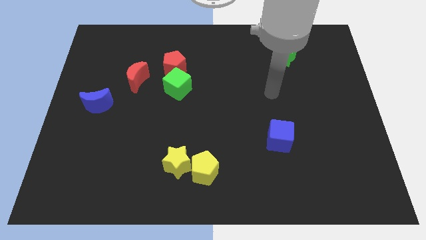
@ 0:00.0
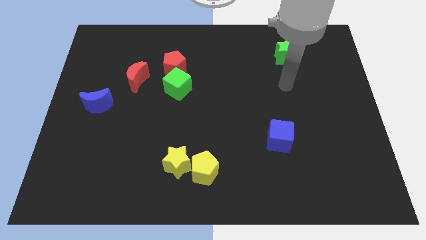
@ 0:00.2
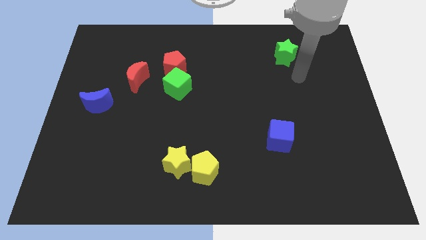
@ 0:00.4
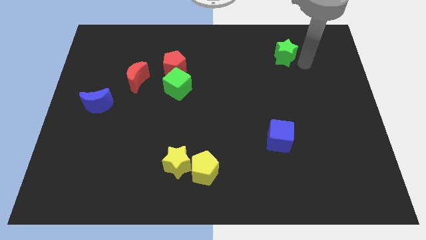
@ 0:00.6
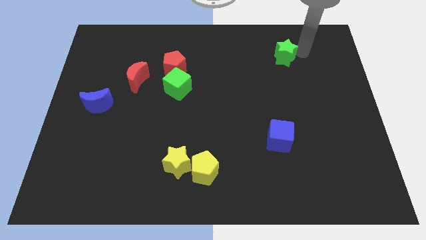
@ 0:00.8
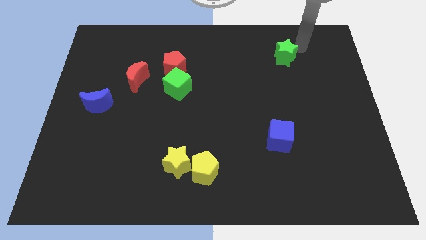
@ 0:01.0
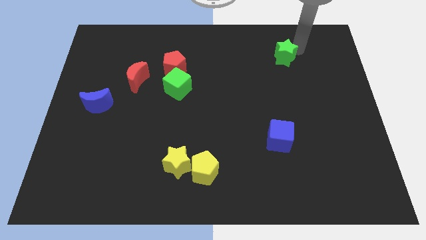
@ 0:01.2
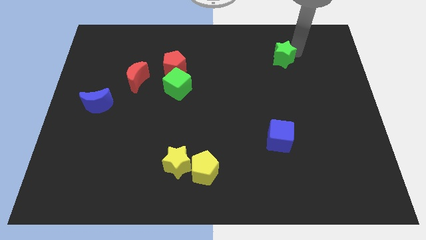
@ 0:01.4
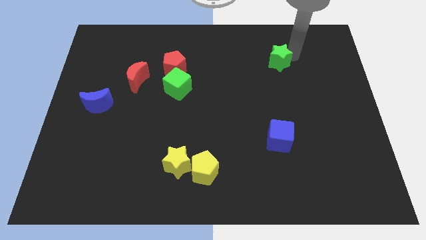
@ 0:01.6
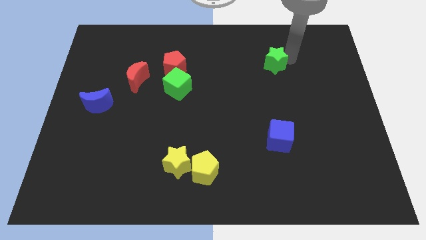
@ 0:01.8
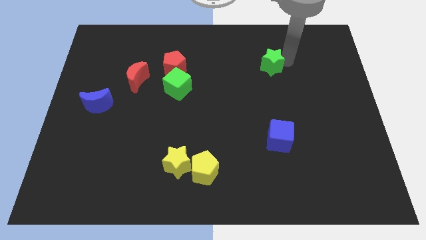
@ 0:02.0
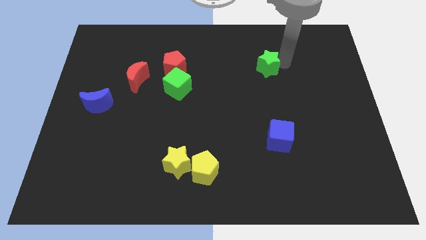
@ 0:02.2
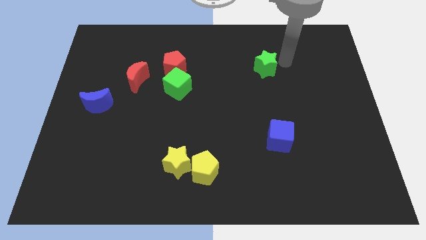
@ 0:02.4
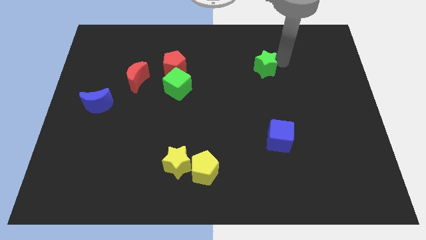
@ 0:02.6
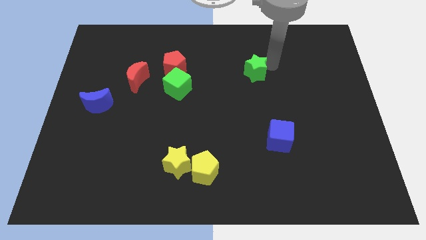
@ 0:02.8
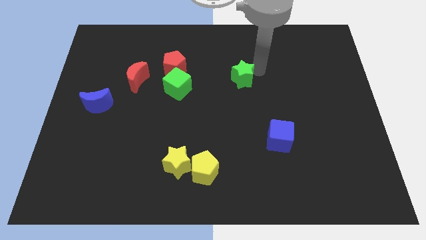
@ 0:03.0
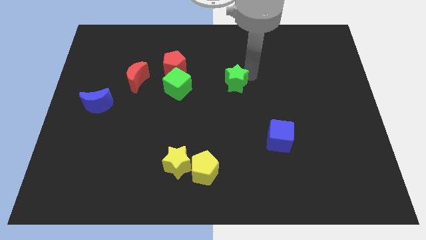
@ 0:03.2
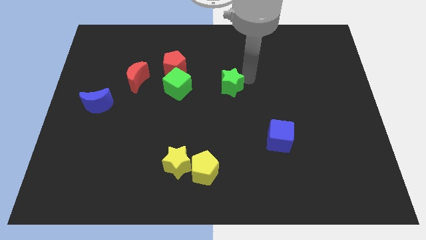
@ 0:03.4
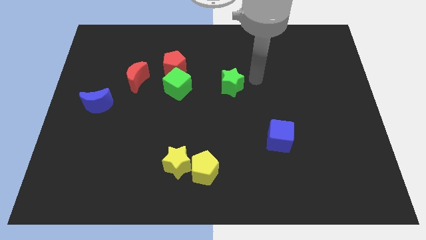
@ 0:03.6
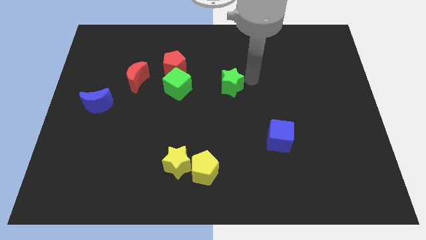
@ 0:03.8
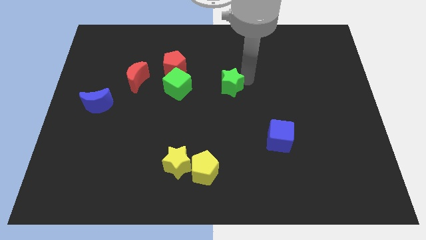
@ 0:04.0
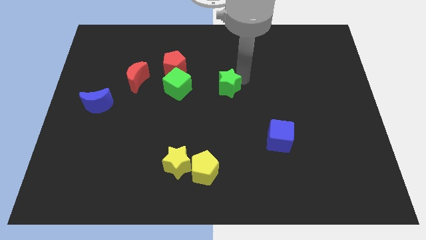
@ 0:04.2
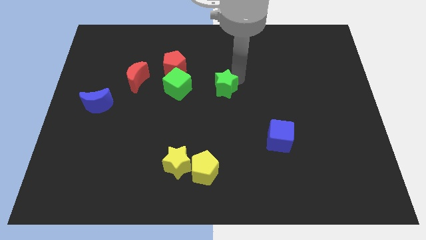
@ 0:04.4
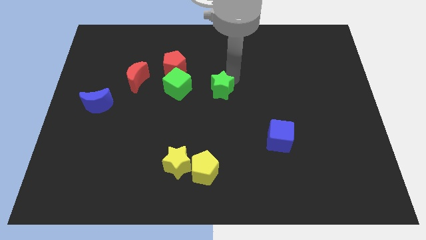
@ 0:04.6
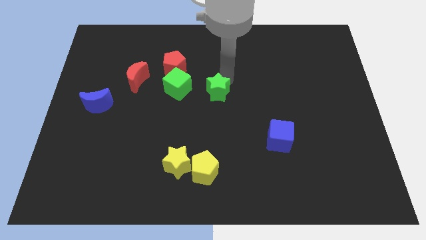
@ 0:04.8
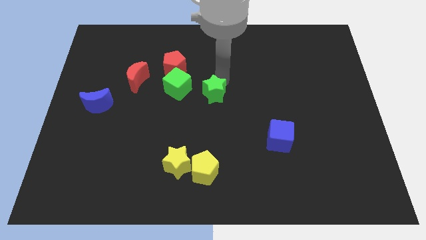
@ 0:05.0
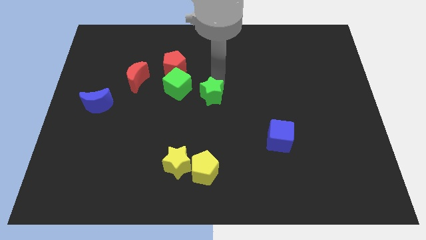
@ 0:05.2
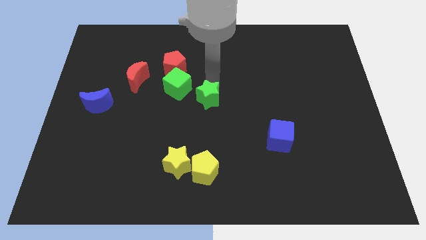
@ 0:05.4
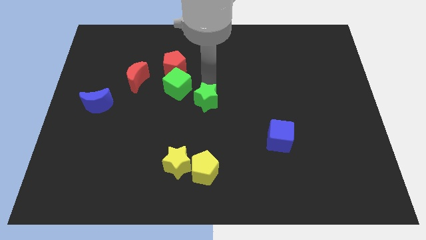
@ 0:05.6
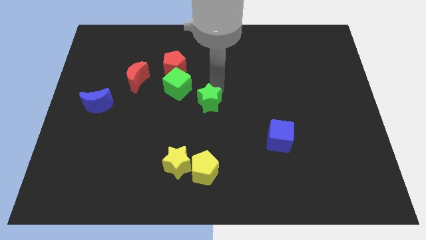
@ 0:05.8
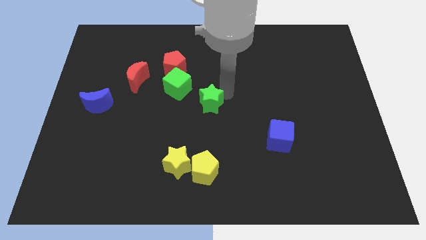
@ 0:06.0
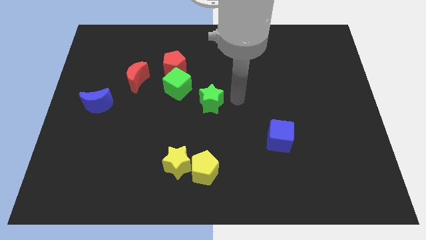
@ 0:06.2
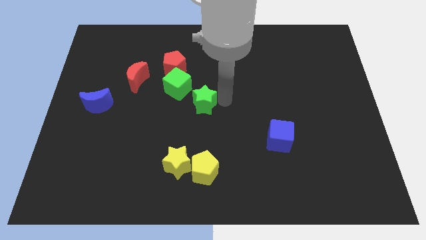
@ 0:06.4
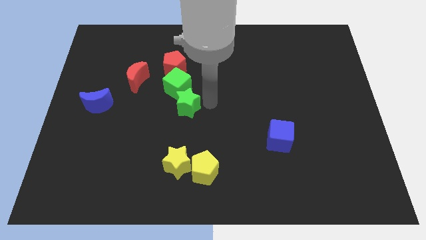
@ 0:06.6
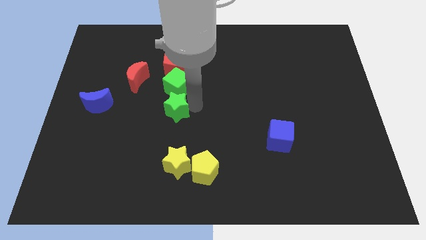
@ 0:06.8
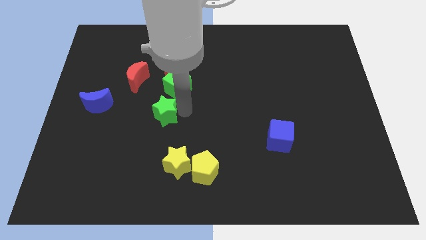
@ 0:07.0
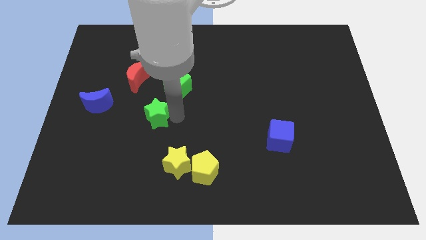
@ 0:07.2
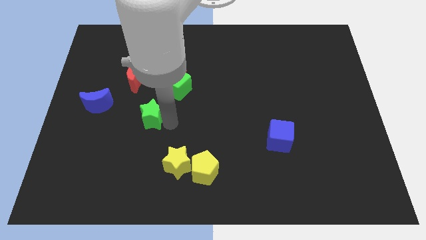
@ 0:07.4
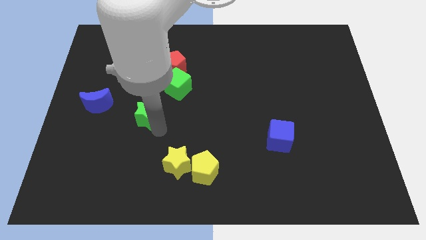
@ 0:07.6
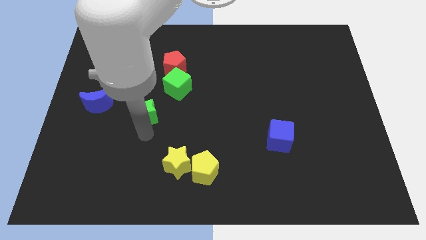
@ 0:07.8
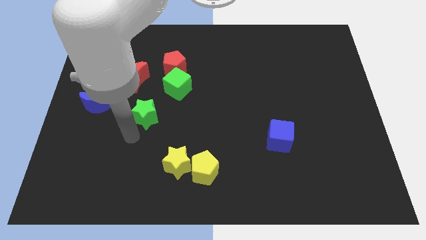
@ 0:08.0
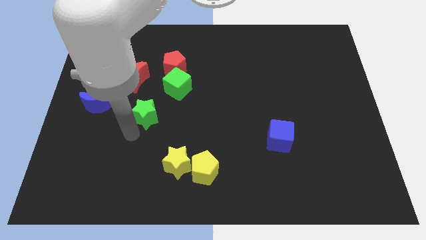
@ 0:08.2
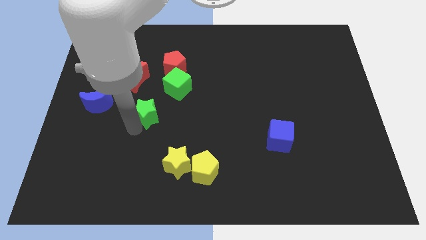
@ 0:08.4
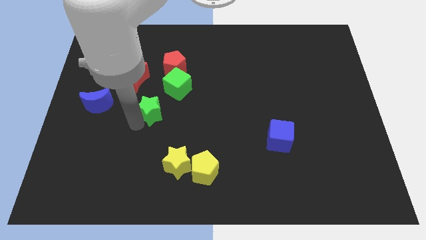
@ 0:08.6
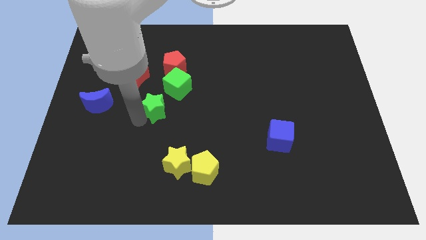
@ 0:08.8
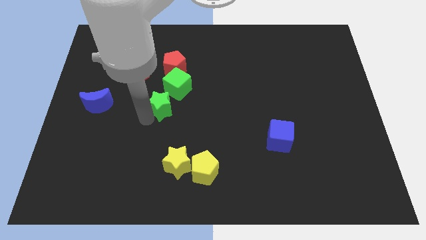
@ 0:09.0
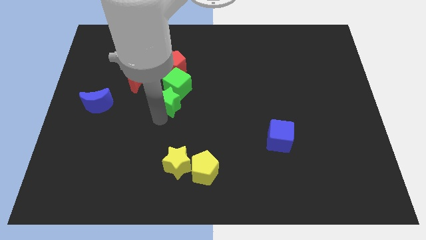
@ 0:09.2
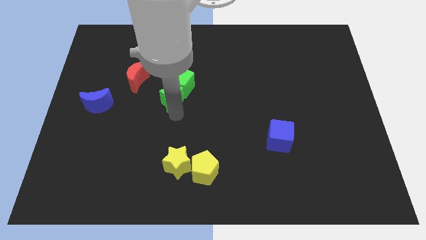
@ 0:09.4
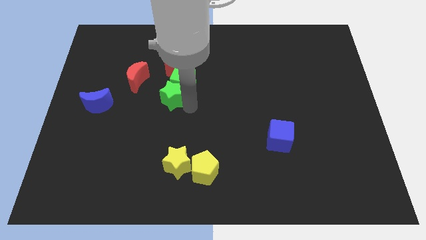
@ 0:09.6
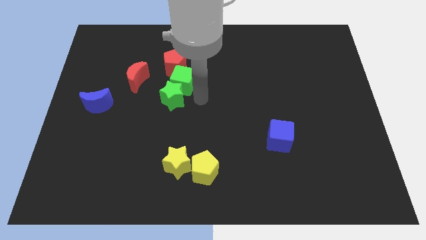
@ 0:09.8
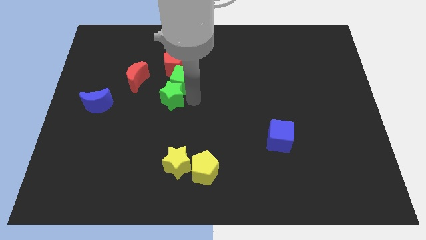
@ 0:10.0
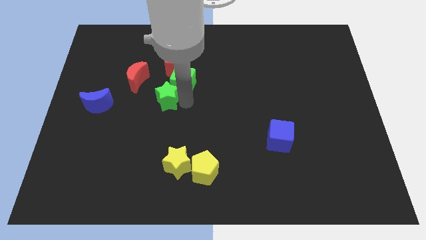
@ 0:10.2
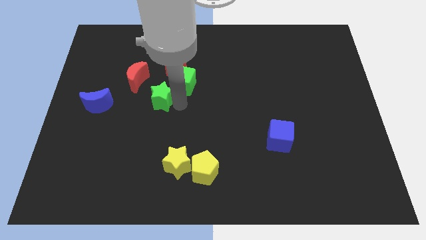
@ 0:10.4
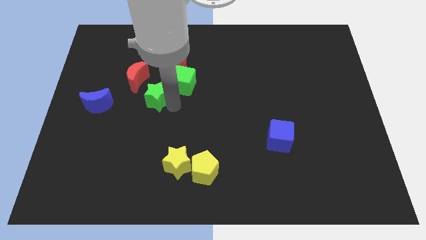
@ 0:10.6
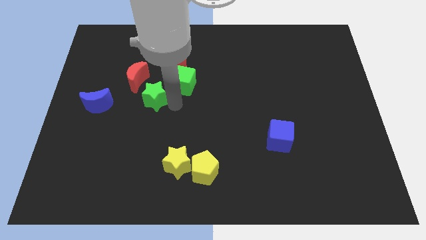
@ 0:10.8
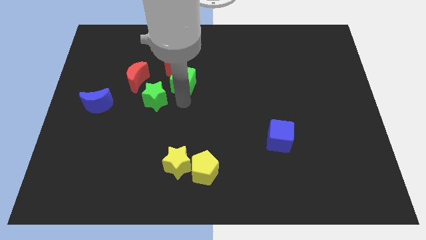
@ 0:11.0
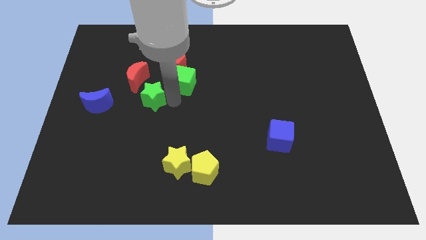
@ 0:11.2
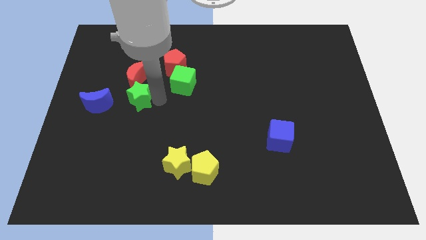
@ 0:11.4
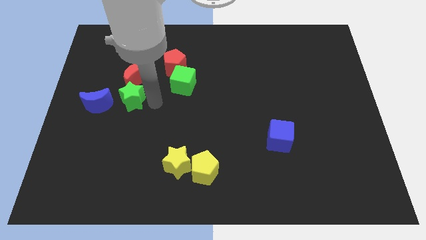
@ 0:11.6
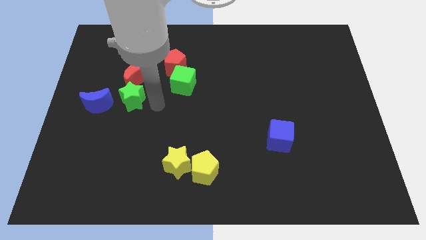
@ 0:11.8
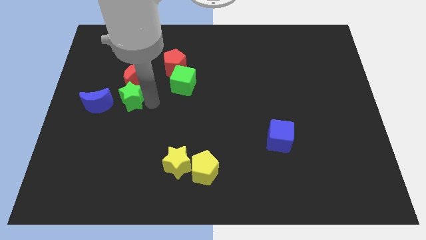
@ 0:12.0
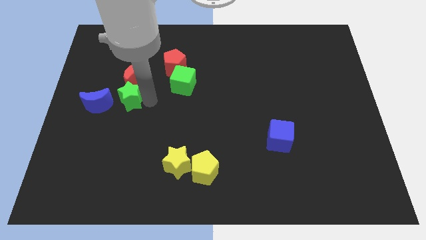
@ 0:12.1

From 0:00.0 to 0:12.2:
put the green star to the bottom left side of the red moon

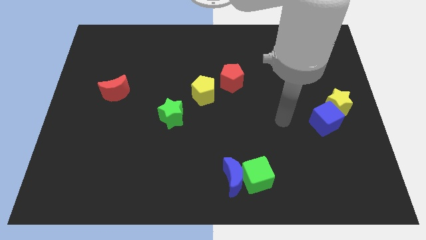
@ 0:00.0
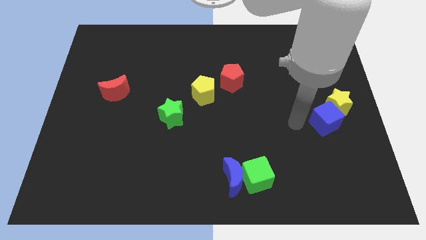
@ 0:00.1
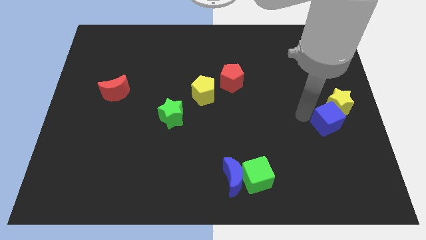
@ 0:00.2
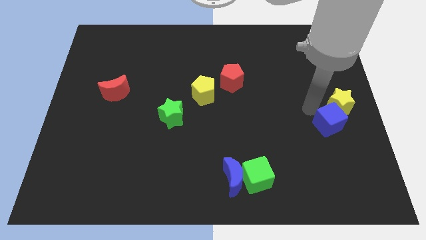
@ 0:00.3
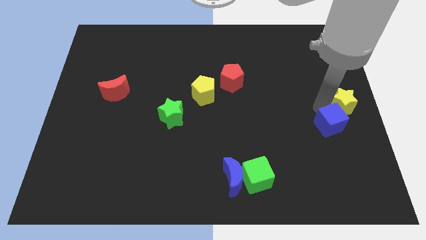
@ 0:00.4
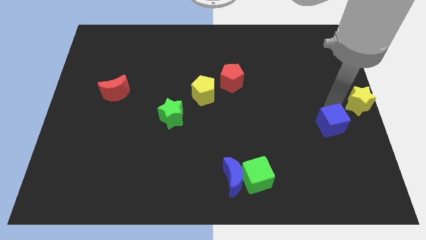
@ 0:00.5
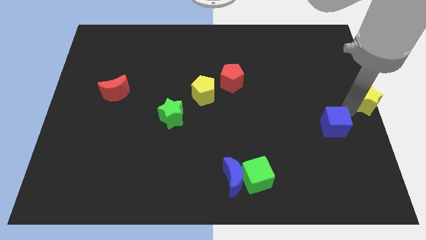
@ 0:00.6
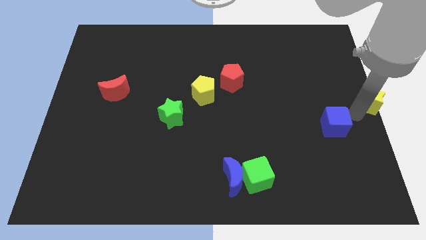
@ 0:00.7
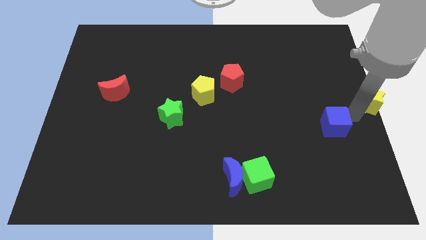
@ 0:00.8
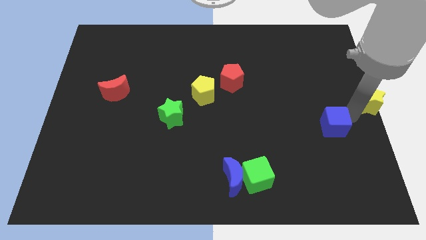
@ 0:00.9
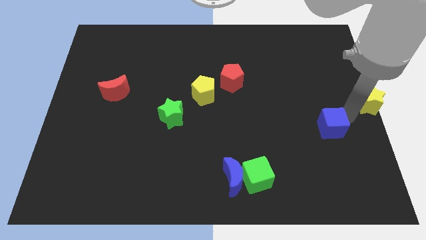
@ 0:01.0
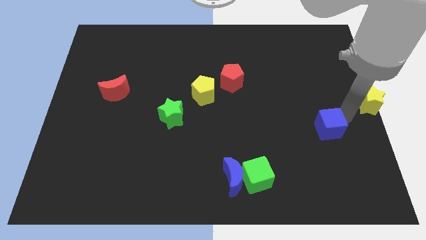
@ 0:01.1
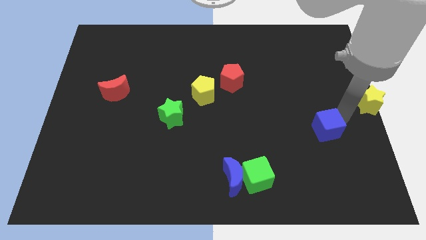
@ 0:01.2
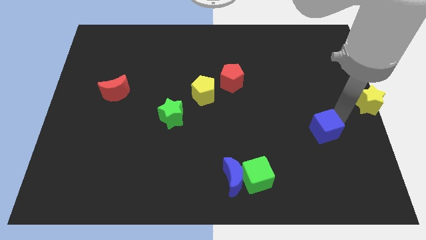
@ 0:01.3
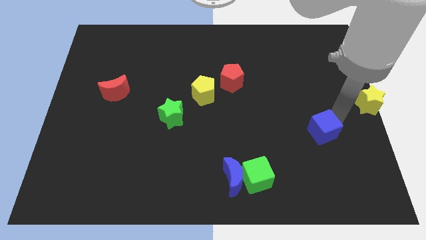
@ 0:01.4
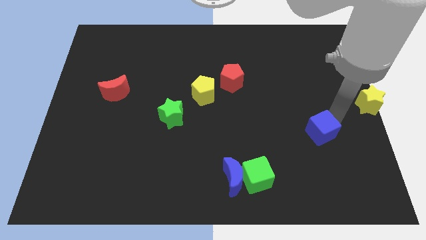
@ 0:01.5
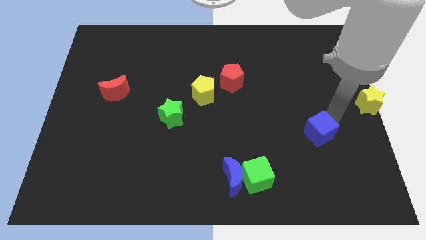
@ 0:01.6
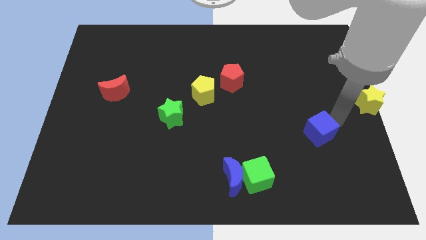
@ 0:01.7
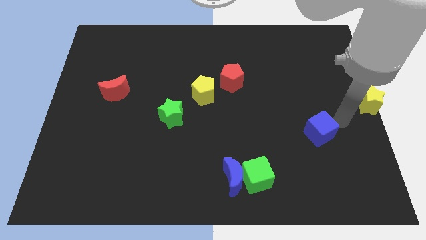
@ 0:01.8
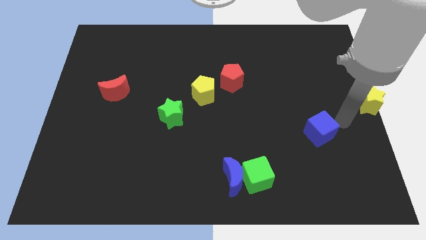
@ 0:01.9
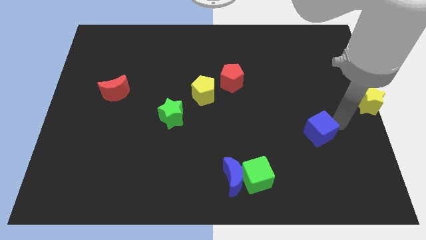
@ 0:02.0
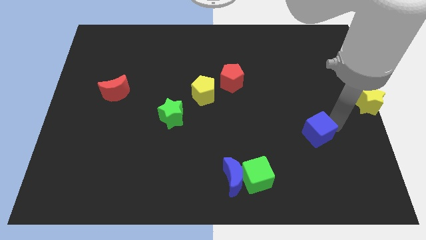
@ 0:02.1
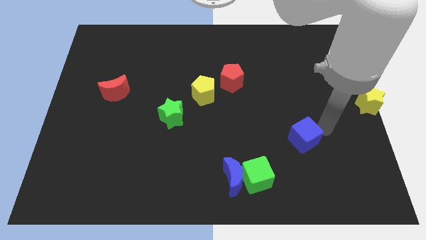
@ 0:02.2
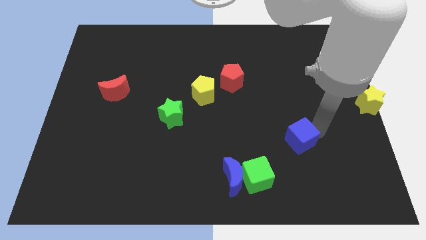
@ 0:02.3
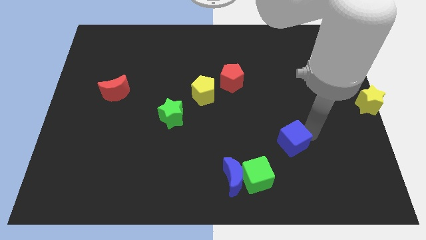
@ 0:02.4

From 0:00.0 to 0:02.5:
slide the blue cube diagonally up and to the right of the green cube
